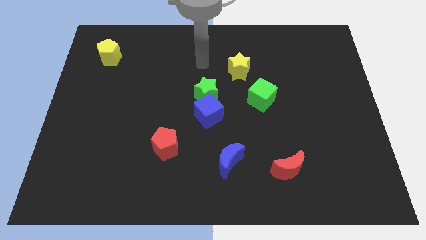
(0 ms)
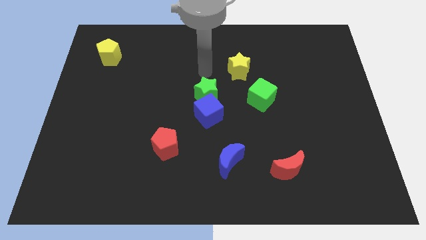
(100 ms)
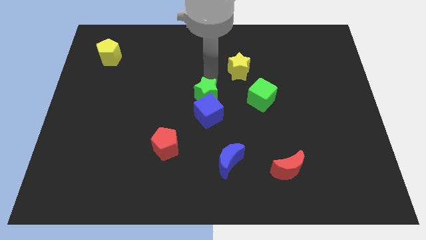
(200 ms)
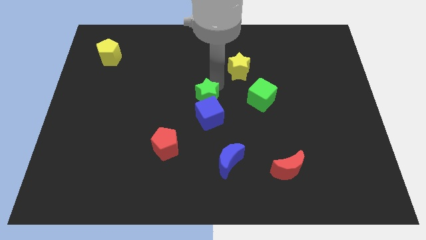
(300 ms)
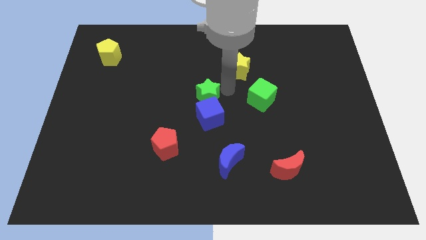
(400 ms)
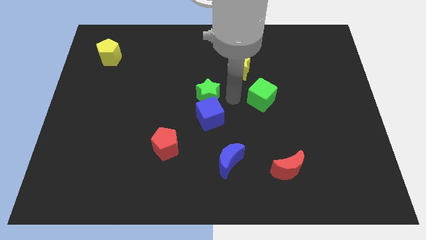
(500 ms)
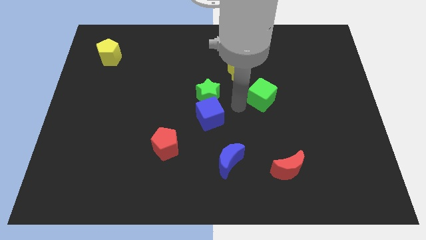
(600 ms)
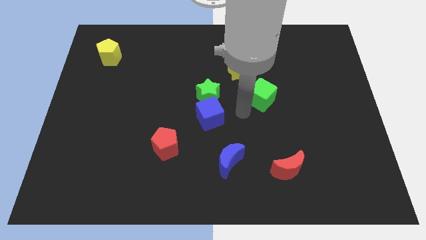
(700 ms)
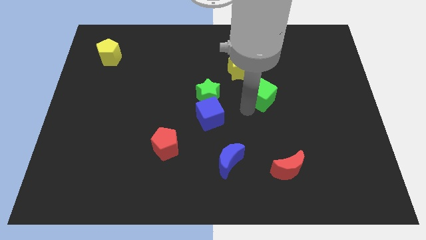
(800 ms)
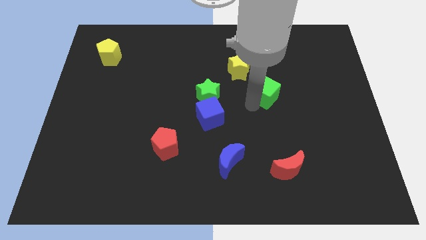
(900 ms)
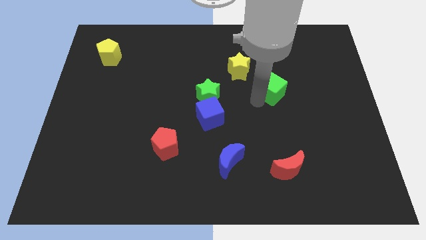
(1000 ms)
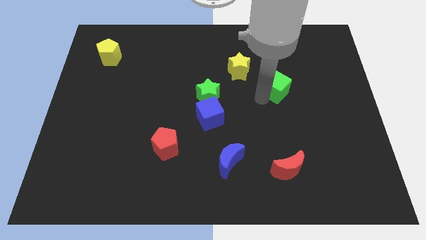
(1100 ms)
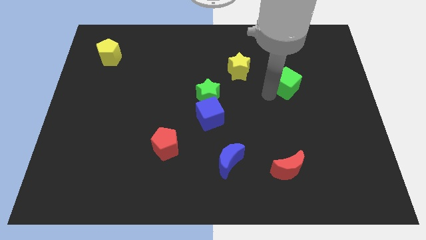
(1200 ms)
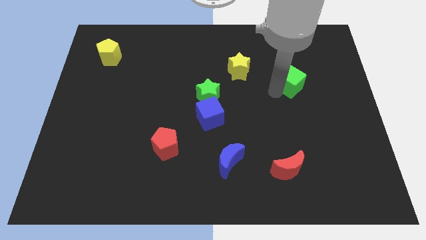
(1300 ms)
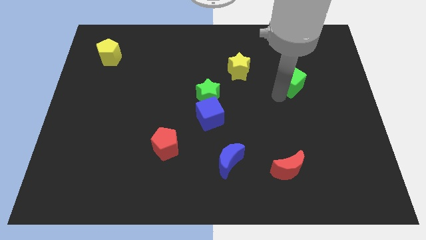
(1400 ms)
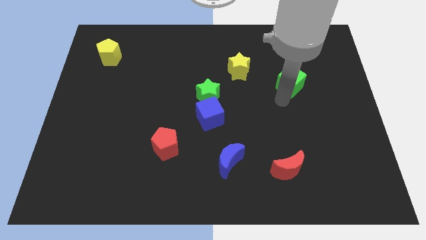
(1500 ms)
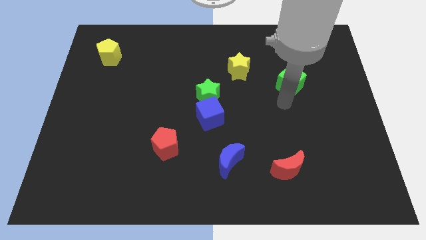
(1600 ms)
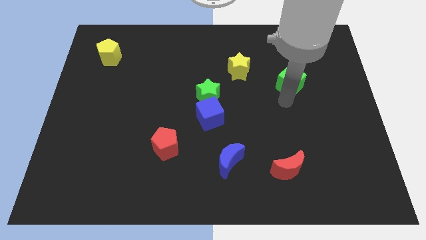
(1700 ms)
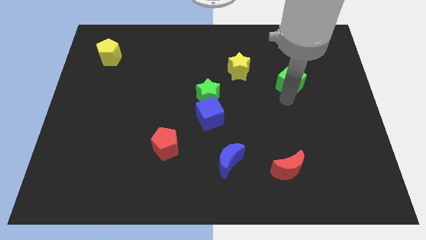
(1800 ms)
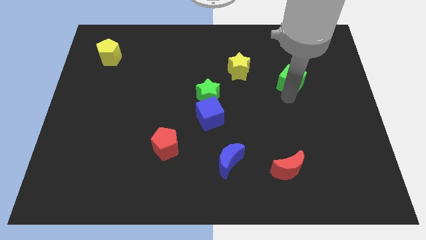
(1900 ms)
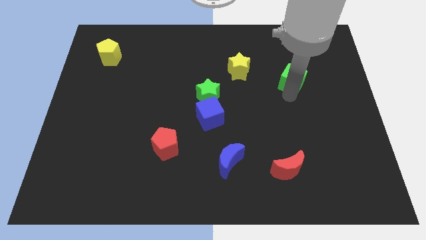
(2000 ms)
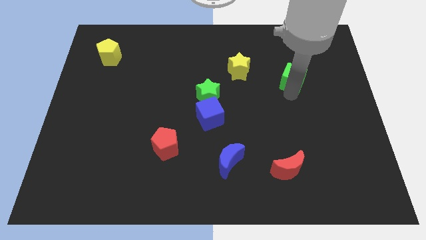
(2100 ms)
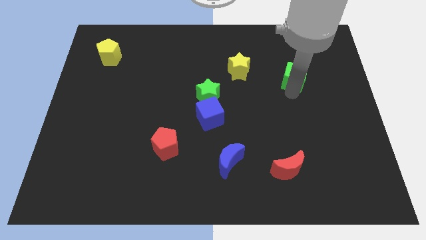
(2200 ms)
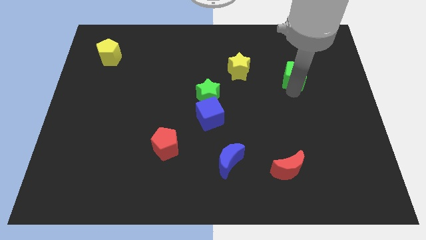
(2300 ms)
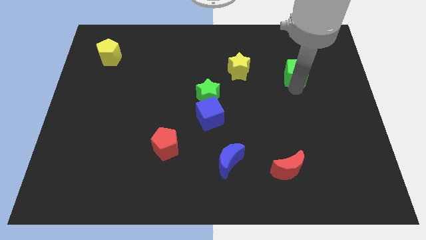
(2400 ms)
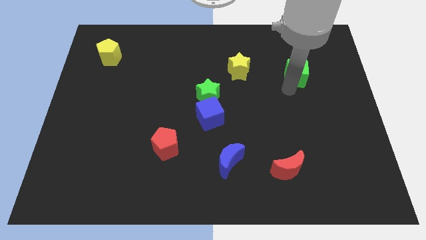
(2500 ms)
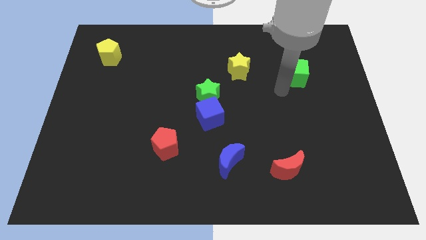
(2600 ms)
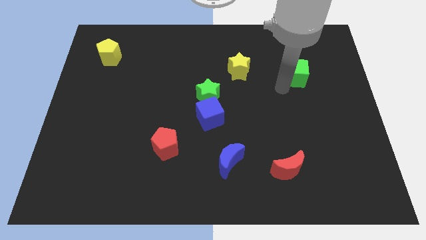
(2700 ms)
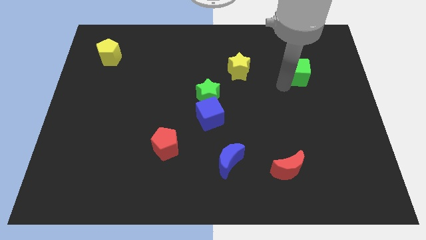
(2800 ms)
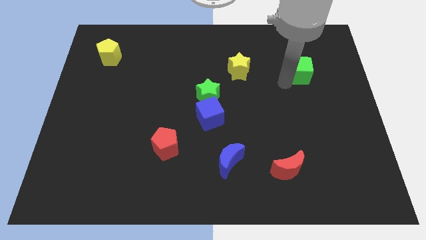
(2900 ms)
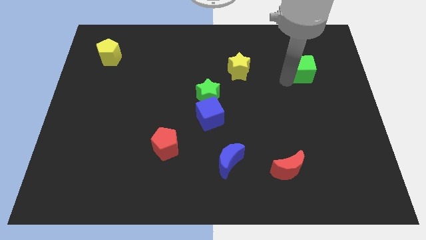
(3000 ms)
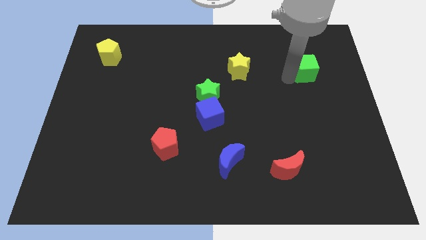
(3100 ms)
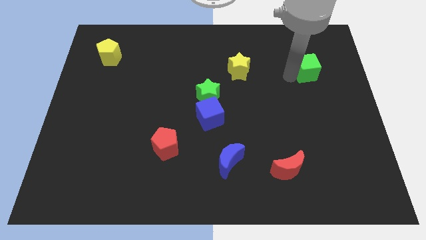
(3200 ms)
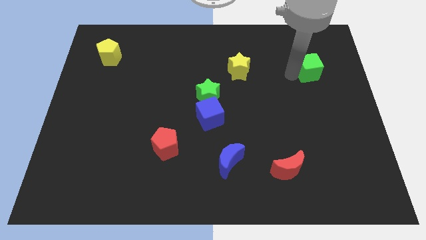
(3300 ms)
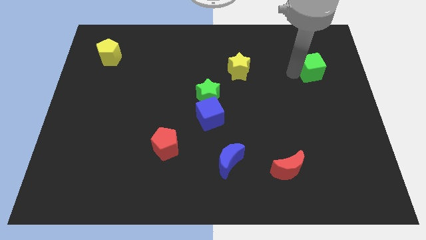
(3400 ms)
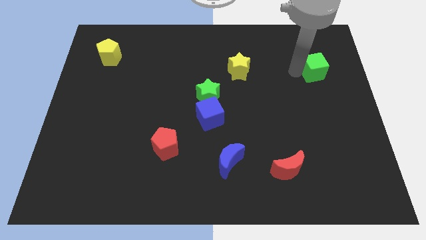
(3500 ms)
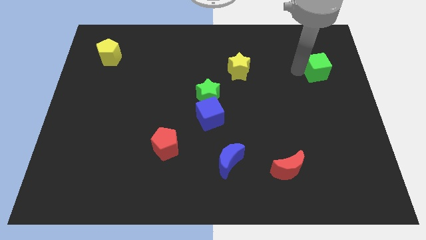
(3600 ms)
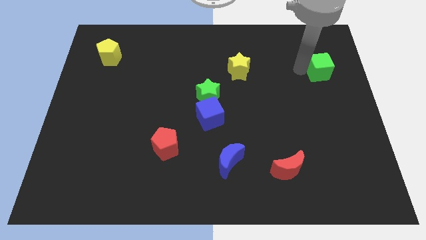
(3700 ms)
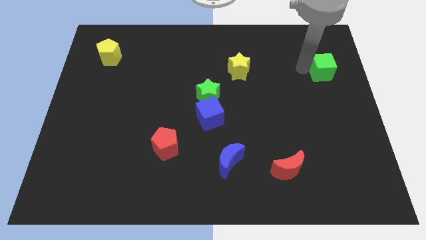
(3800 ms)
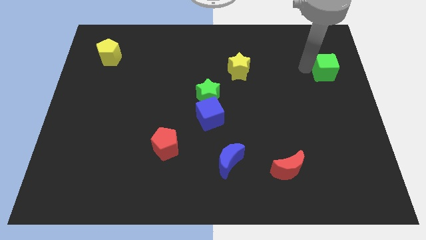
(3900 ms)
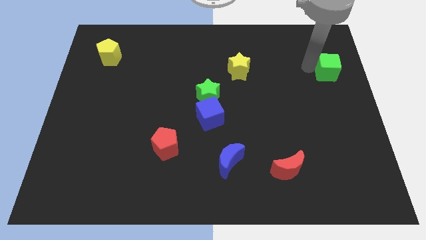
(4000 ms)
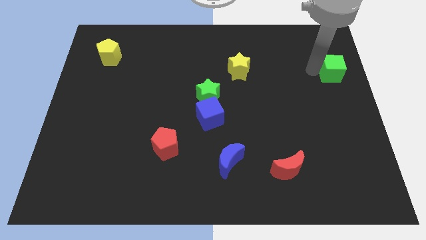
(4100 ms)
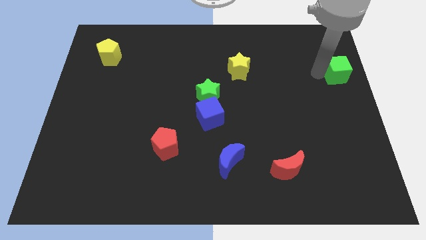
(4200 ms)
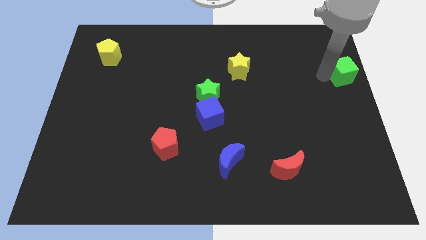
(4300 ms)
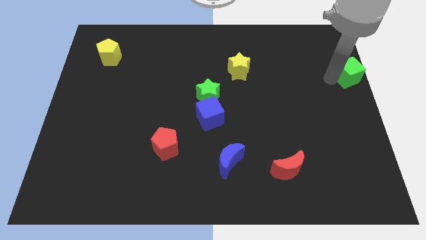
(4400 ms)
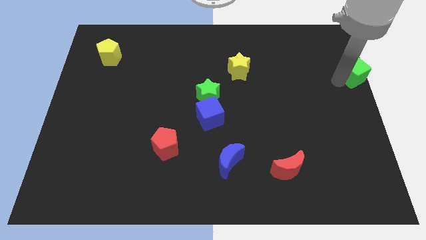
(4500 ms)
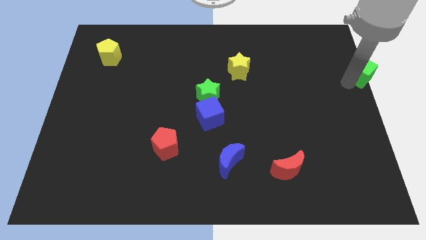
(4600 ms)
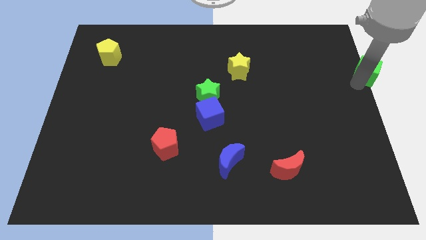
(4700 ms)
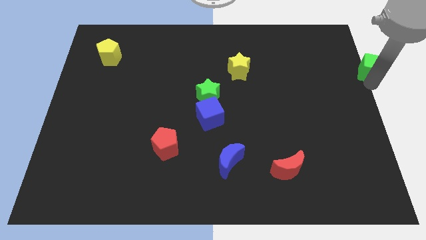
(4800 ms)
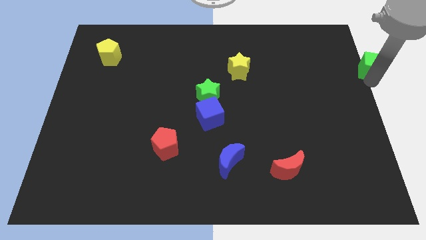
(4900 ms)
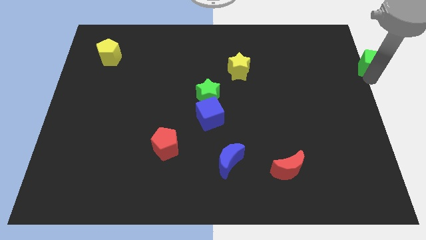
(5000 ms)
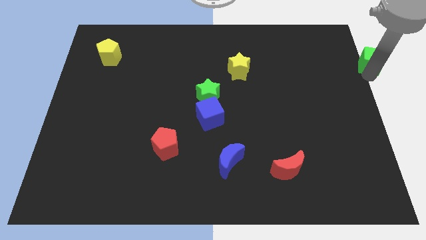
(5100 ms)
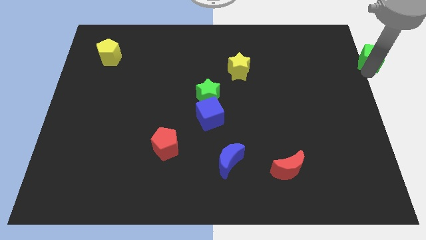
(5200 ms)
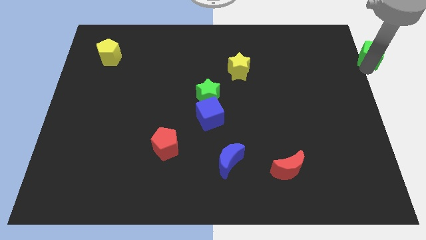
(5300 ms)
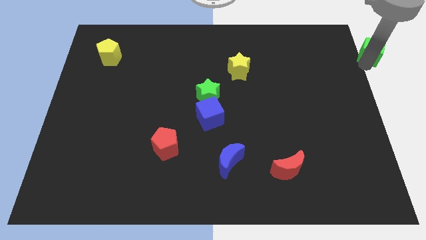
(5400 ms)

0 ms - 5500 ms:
put the green cube to the upper right corner
